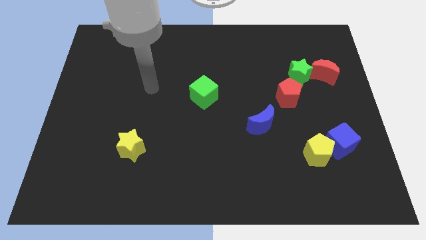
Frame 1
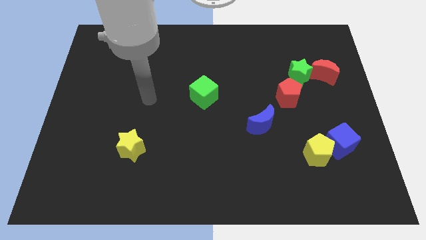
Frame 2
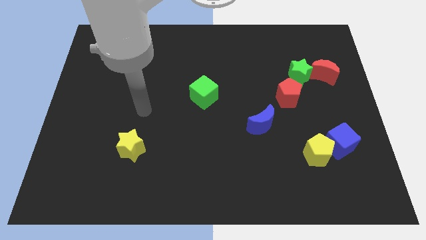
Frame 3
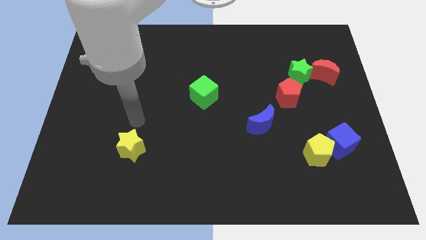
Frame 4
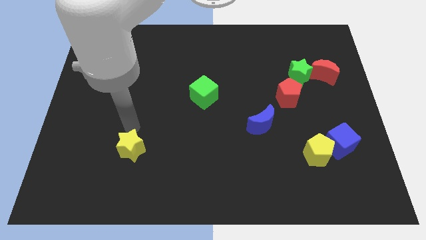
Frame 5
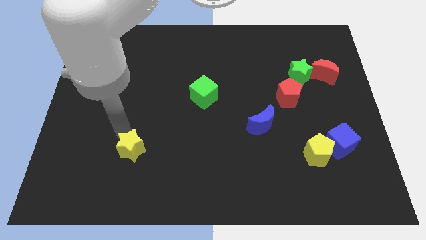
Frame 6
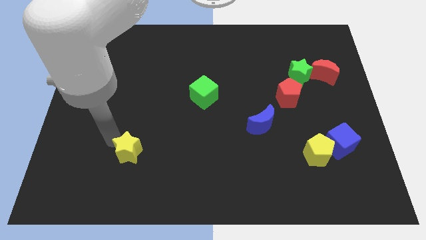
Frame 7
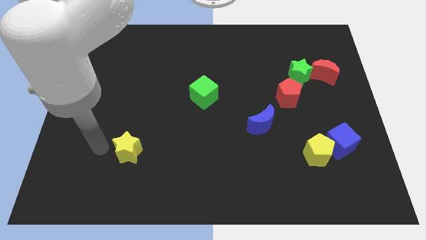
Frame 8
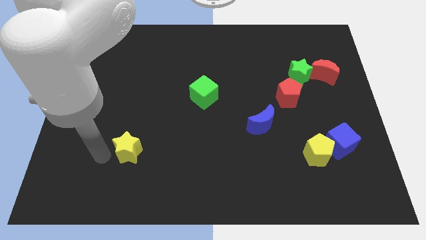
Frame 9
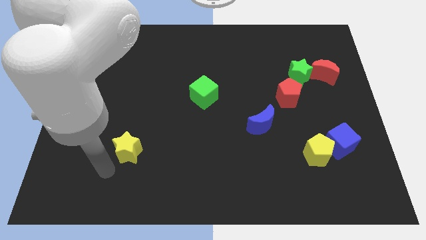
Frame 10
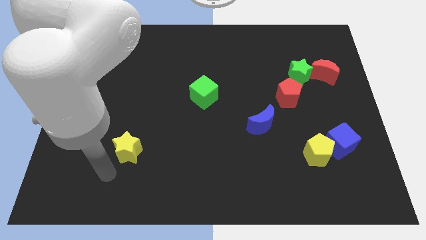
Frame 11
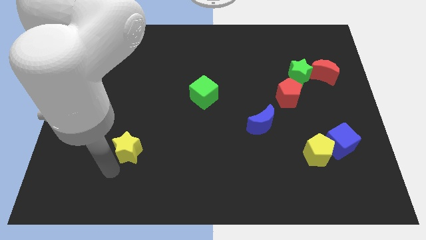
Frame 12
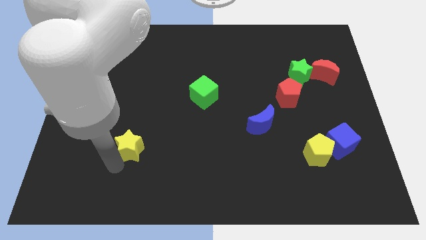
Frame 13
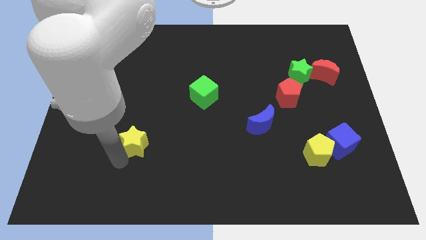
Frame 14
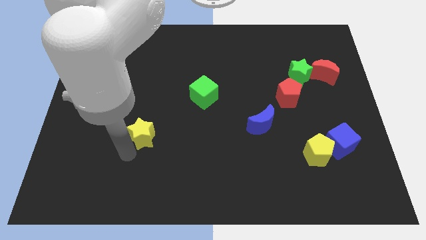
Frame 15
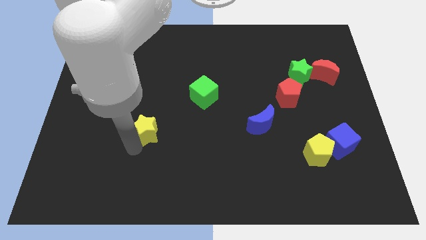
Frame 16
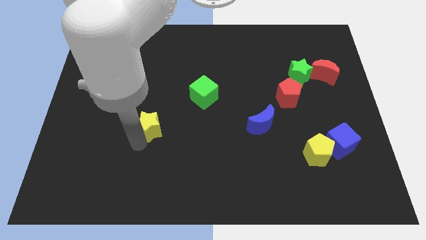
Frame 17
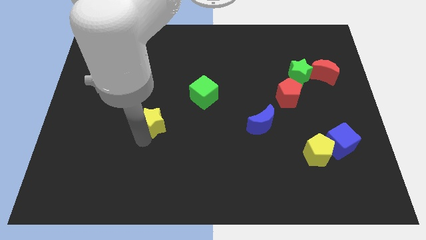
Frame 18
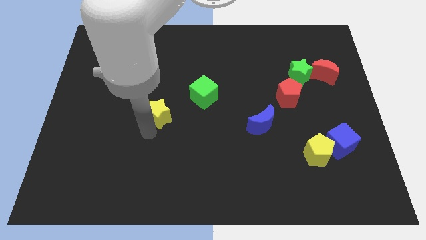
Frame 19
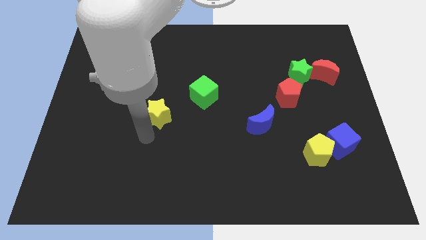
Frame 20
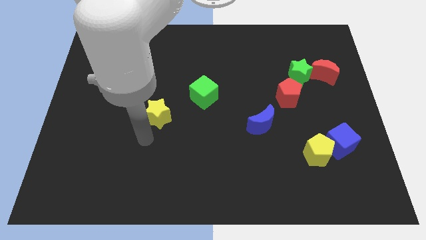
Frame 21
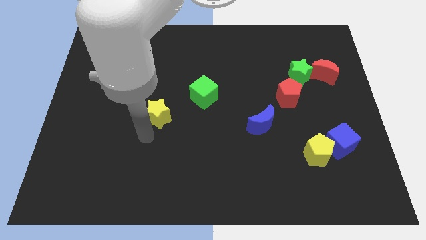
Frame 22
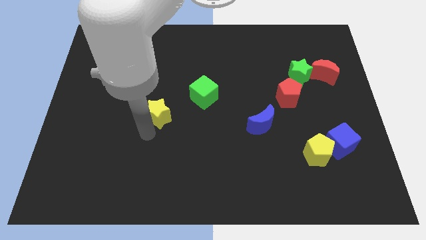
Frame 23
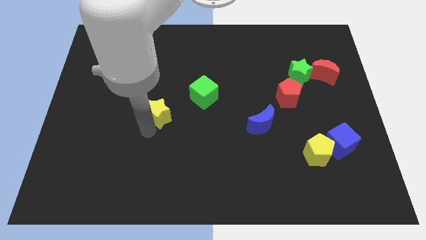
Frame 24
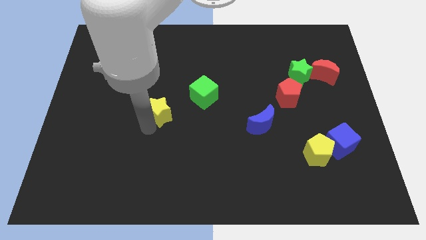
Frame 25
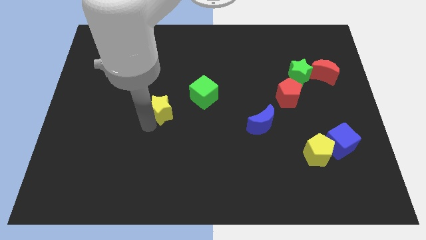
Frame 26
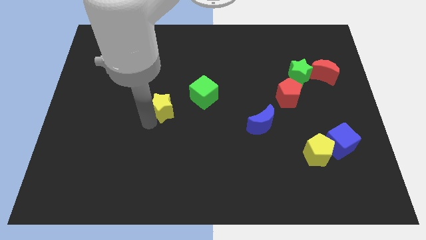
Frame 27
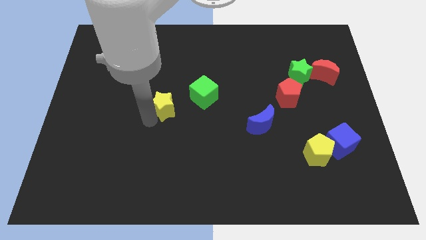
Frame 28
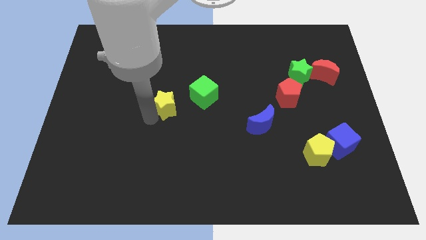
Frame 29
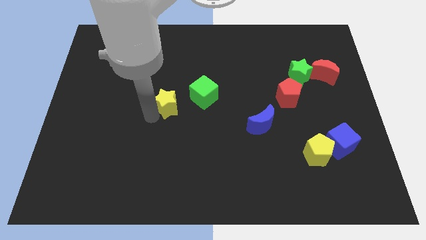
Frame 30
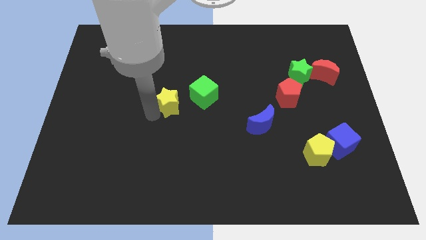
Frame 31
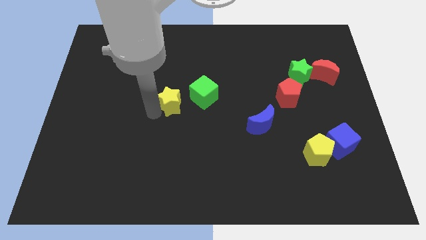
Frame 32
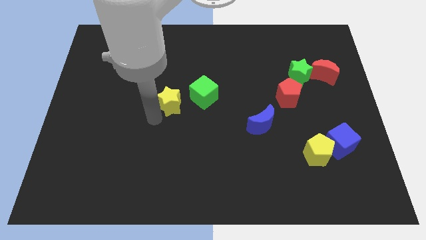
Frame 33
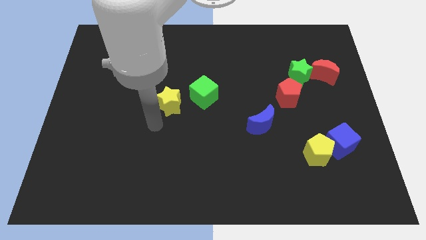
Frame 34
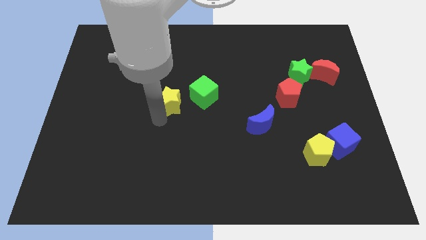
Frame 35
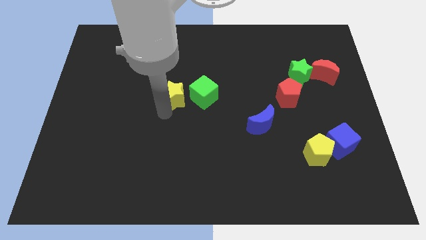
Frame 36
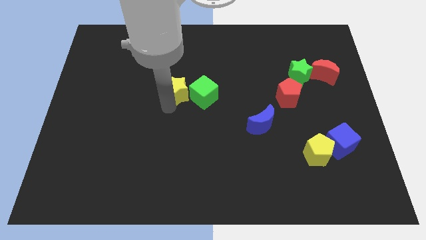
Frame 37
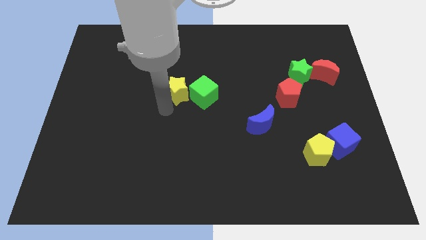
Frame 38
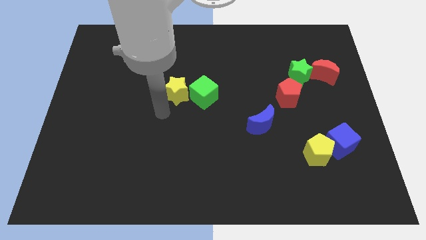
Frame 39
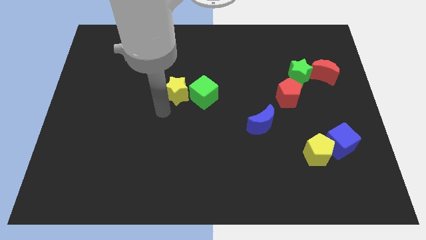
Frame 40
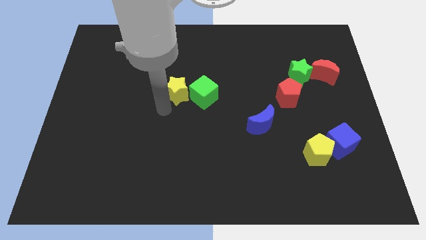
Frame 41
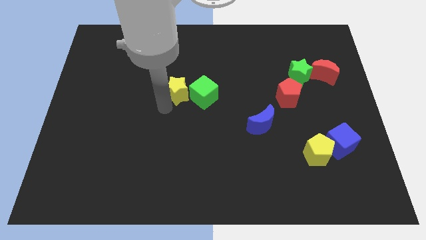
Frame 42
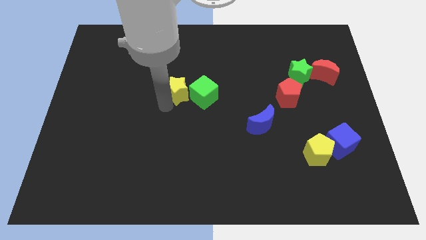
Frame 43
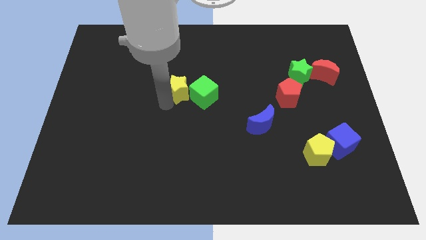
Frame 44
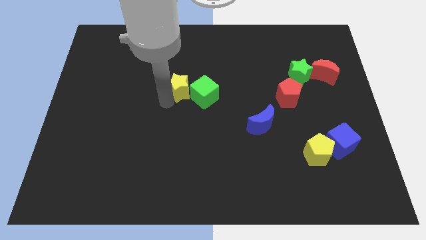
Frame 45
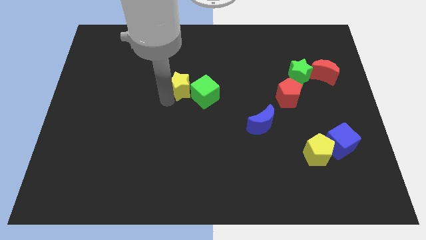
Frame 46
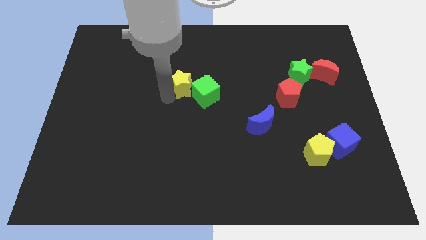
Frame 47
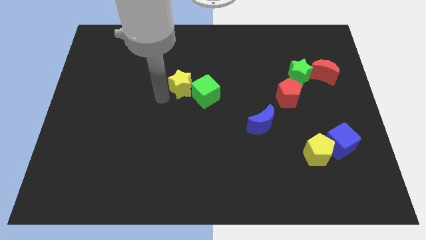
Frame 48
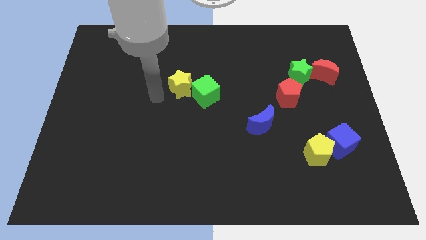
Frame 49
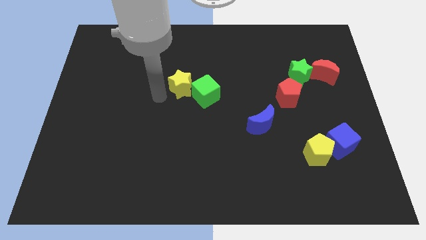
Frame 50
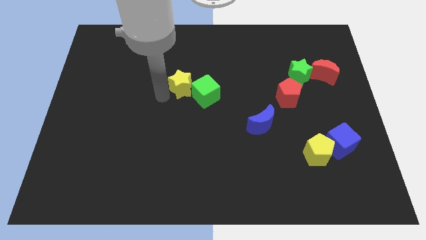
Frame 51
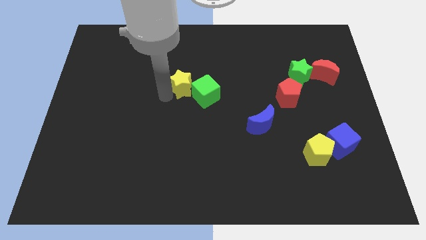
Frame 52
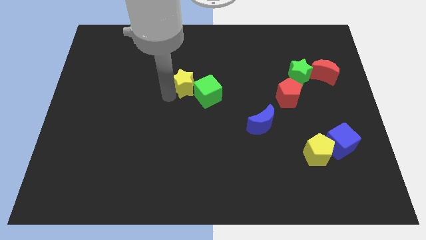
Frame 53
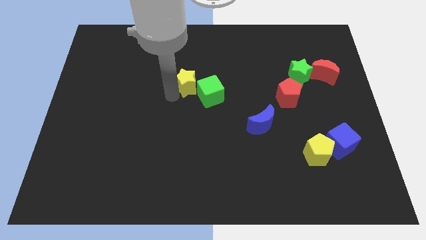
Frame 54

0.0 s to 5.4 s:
slide the yellow star up and then to the right

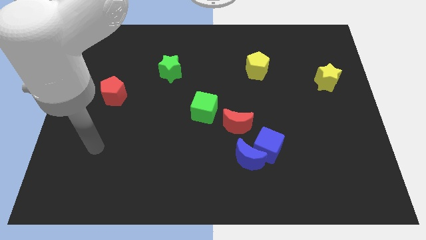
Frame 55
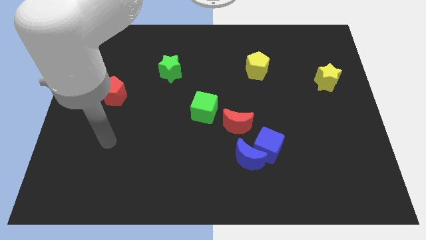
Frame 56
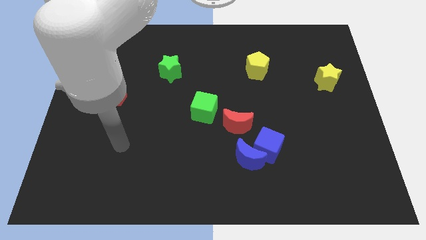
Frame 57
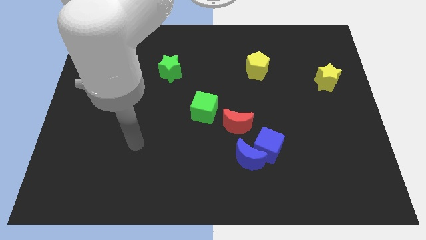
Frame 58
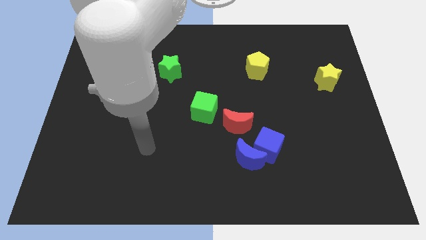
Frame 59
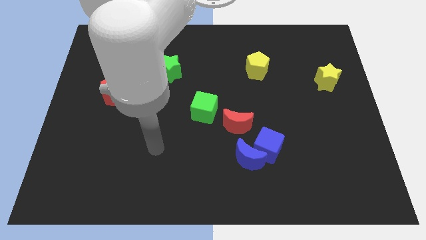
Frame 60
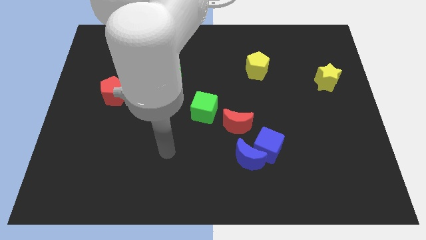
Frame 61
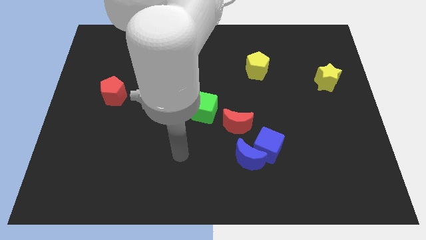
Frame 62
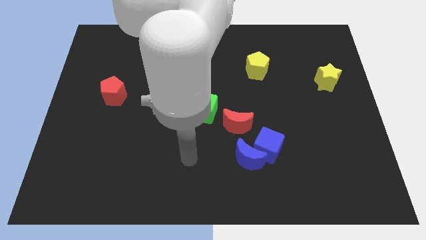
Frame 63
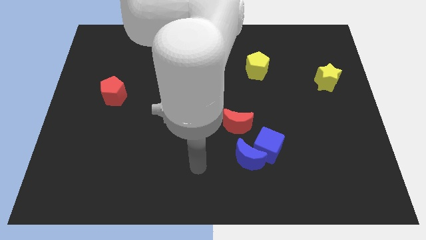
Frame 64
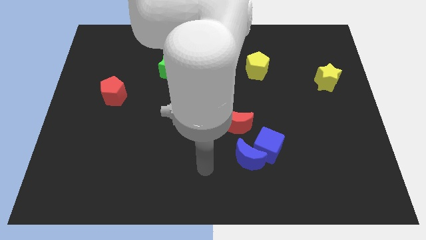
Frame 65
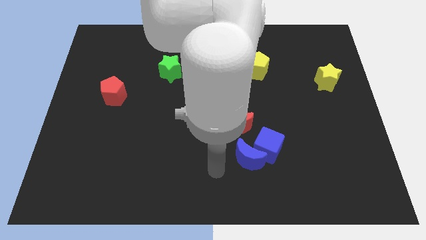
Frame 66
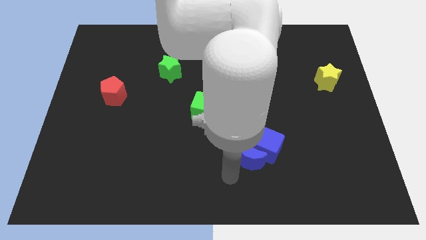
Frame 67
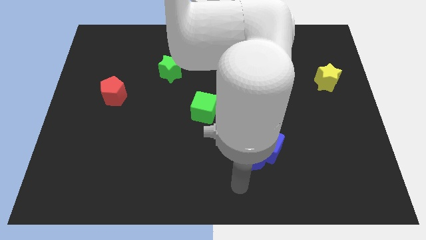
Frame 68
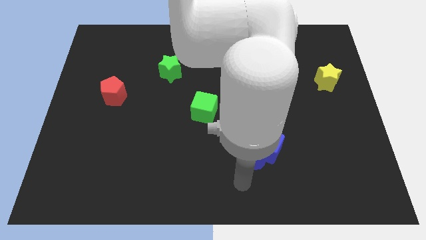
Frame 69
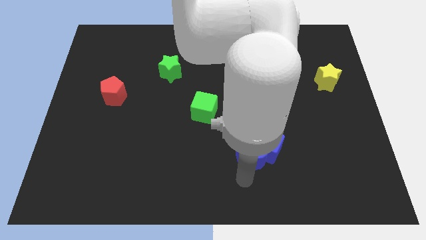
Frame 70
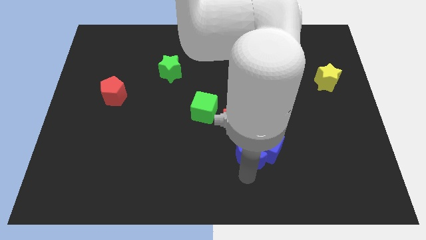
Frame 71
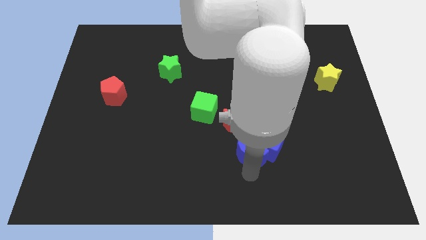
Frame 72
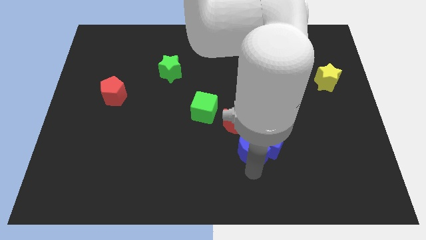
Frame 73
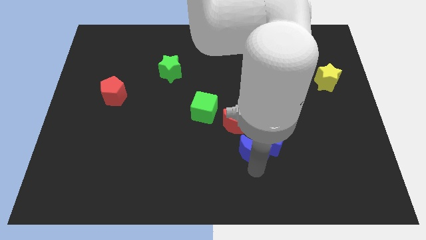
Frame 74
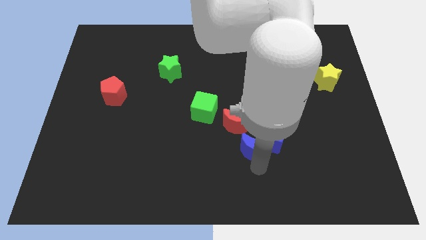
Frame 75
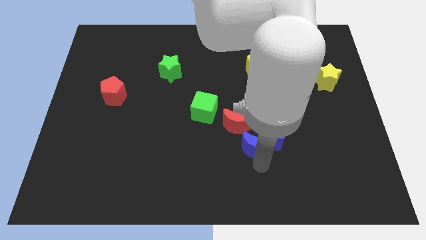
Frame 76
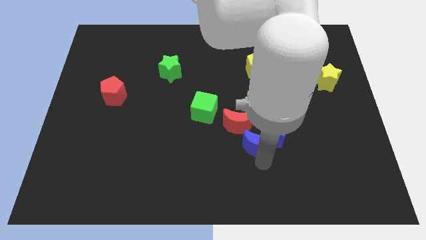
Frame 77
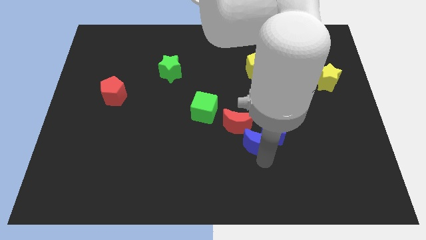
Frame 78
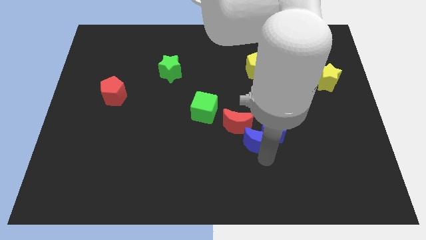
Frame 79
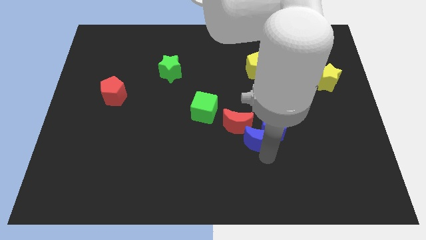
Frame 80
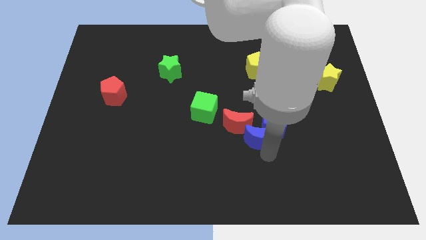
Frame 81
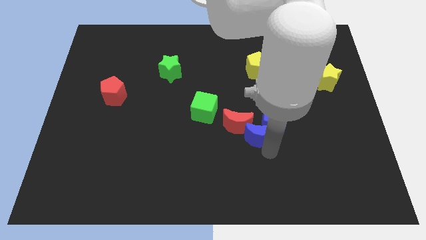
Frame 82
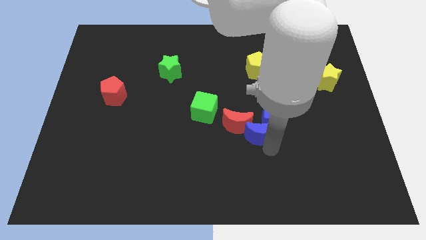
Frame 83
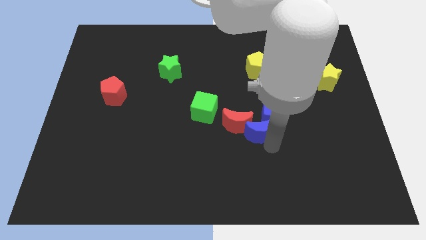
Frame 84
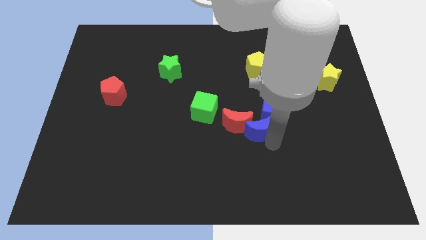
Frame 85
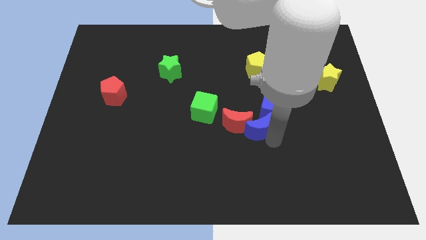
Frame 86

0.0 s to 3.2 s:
move the blue moon upwards somewhat

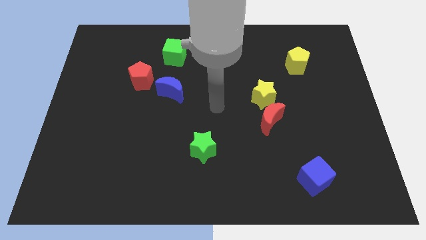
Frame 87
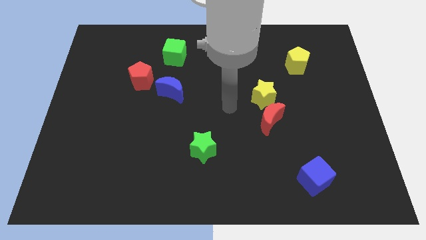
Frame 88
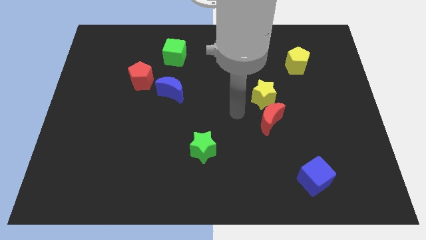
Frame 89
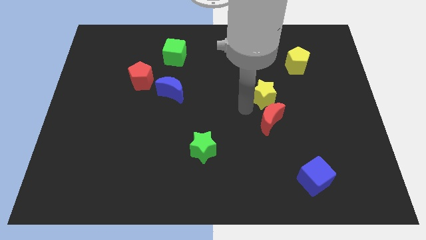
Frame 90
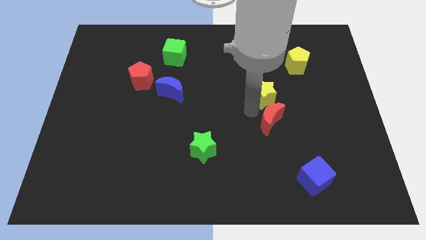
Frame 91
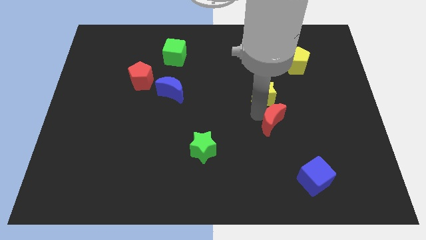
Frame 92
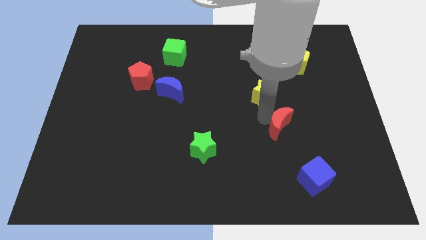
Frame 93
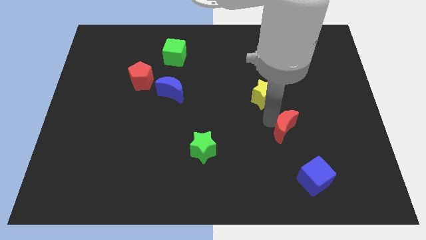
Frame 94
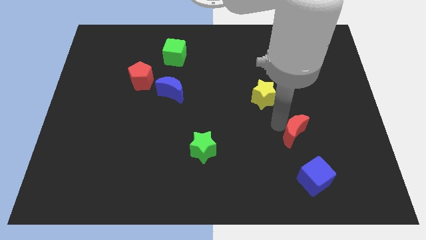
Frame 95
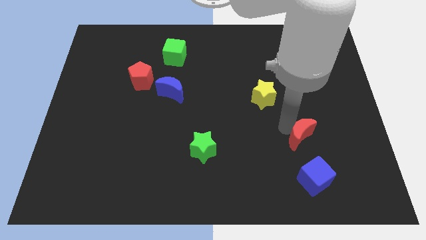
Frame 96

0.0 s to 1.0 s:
push the red moon a little bit down and to the right
